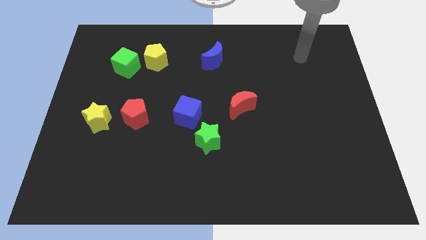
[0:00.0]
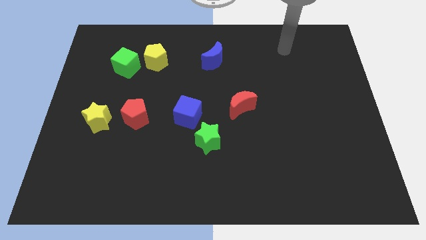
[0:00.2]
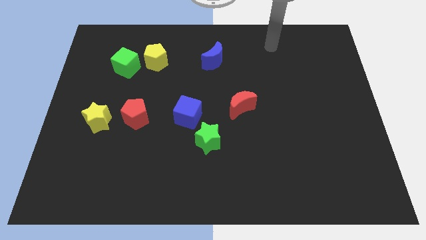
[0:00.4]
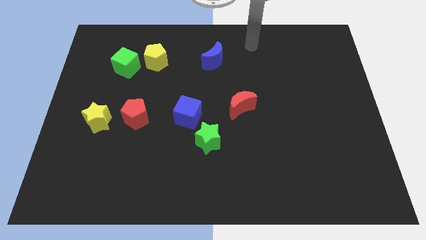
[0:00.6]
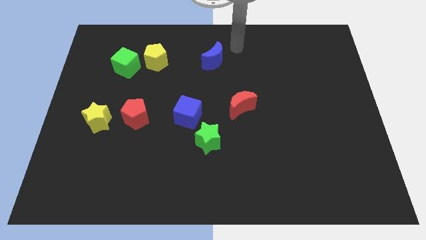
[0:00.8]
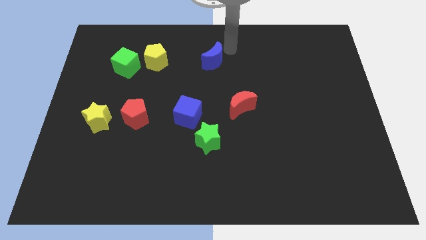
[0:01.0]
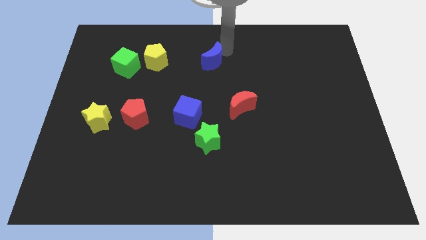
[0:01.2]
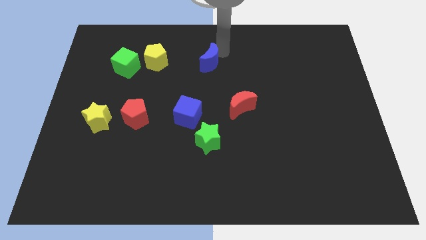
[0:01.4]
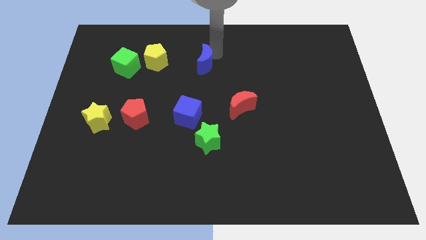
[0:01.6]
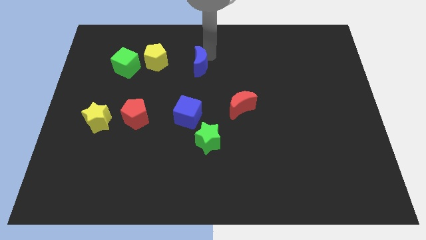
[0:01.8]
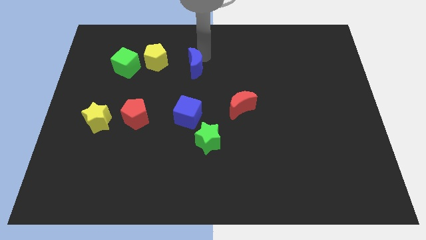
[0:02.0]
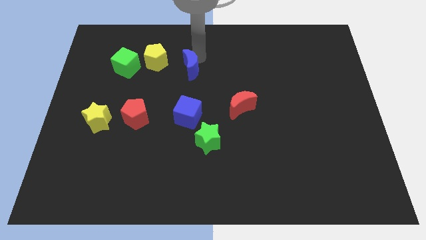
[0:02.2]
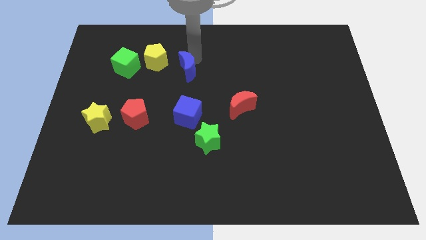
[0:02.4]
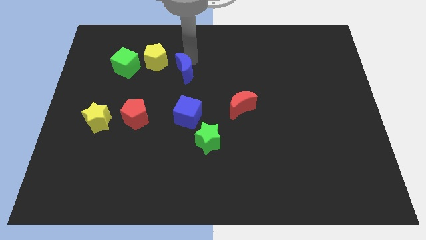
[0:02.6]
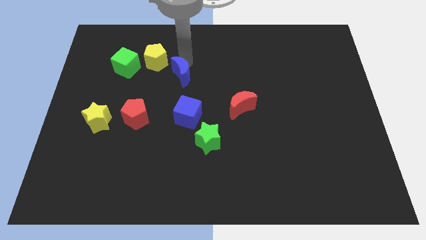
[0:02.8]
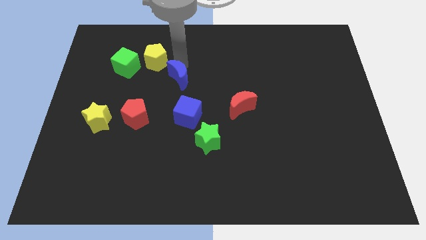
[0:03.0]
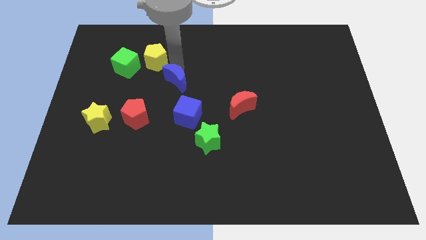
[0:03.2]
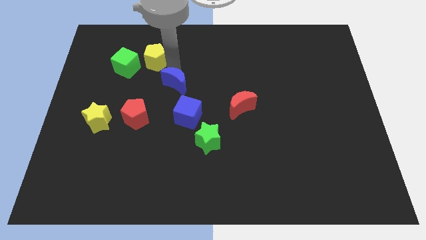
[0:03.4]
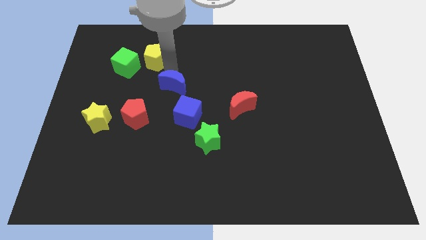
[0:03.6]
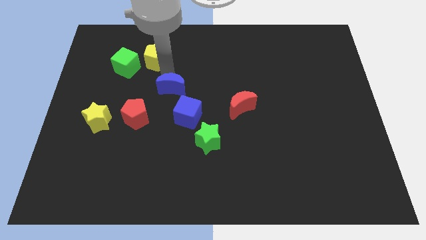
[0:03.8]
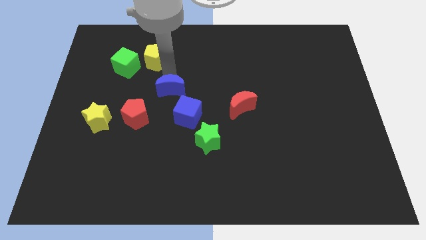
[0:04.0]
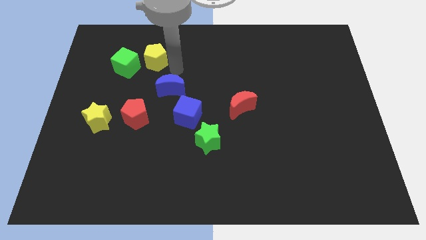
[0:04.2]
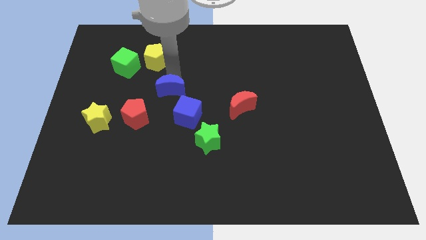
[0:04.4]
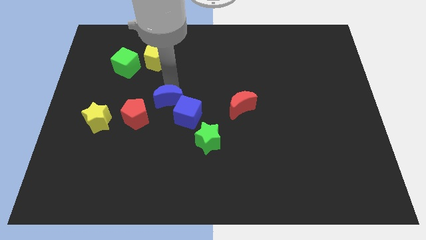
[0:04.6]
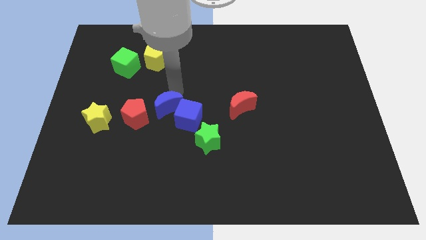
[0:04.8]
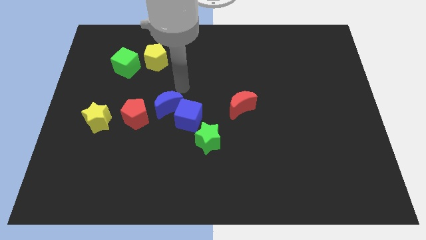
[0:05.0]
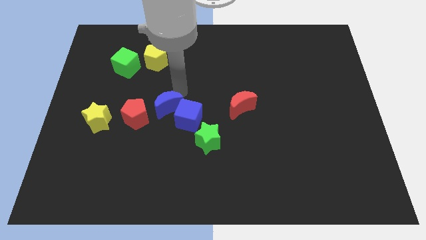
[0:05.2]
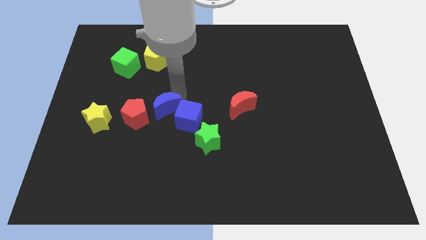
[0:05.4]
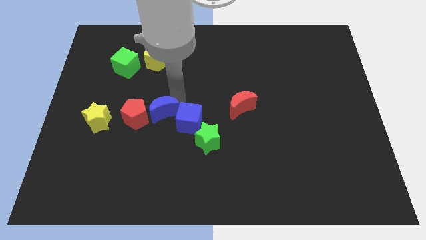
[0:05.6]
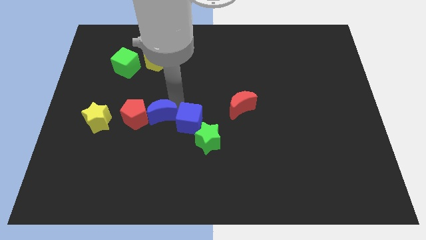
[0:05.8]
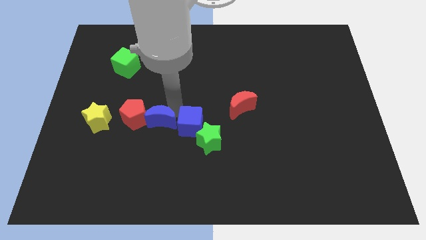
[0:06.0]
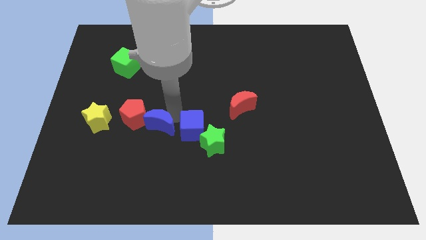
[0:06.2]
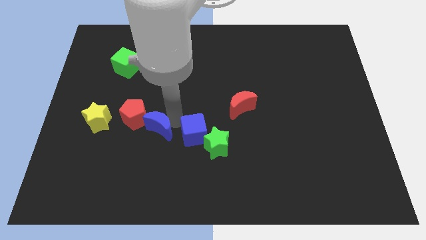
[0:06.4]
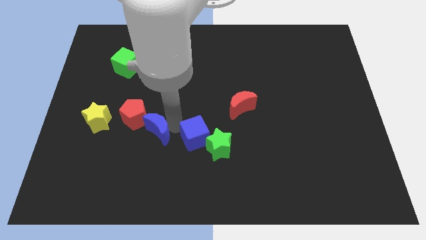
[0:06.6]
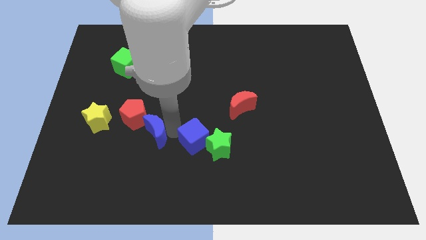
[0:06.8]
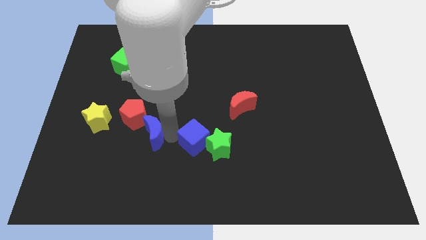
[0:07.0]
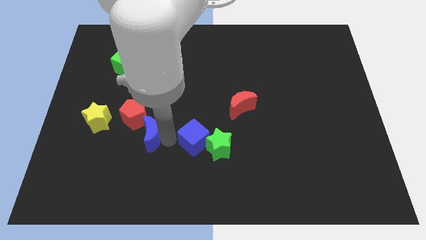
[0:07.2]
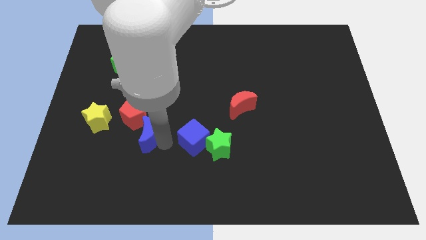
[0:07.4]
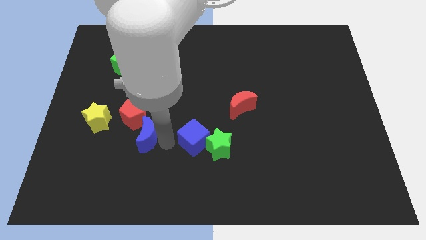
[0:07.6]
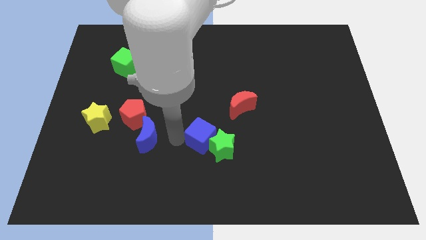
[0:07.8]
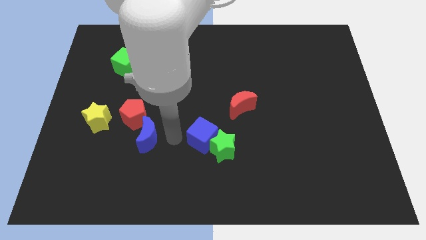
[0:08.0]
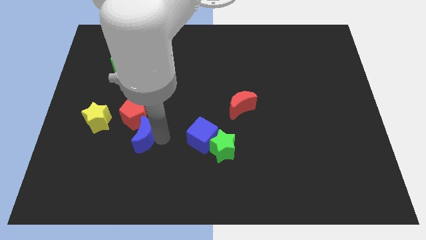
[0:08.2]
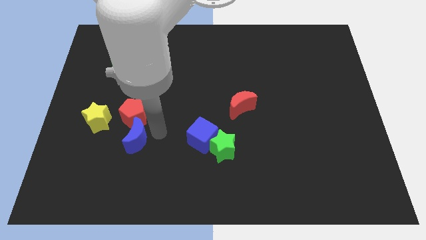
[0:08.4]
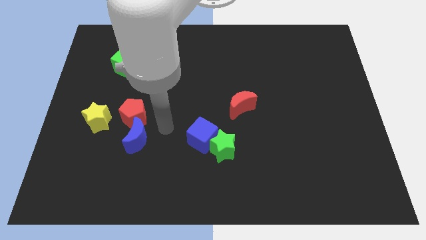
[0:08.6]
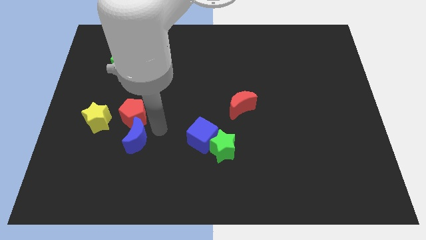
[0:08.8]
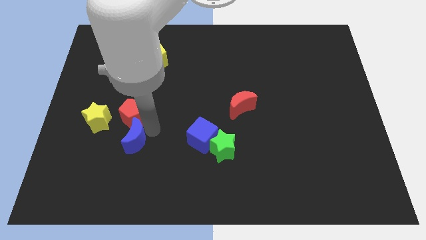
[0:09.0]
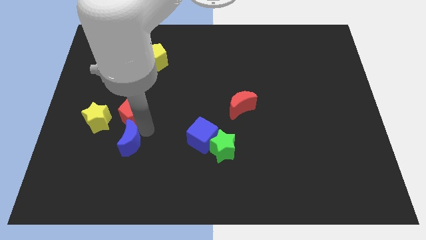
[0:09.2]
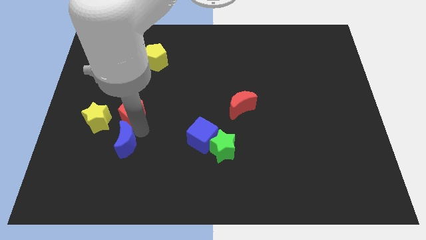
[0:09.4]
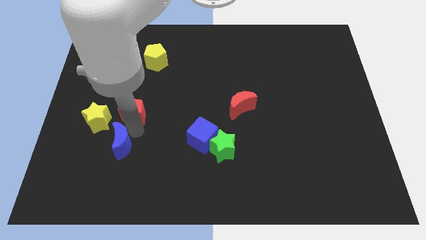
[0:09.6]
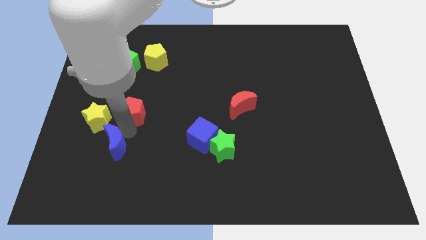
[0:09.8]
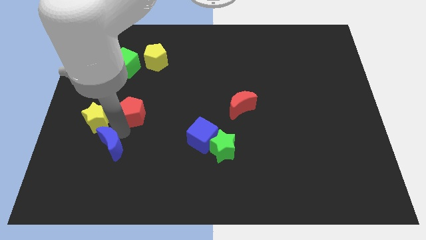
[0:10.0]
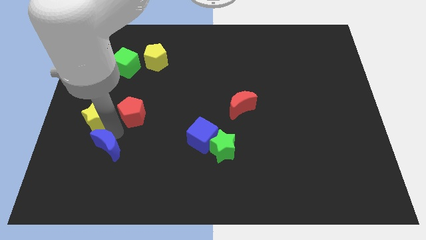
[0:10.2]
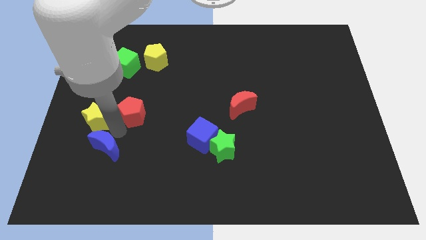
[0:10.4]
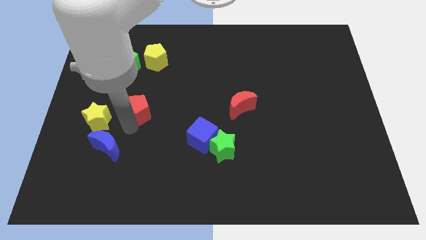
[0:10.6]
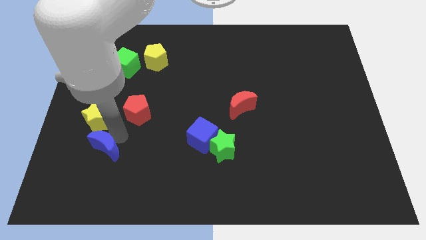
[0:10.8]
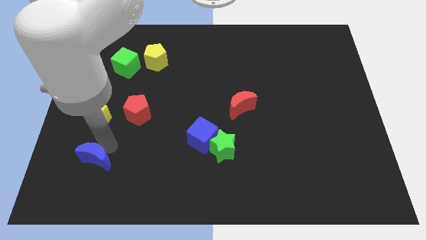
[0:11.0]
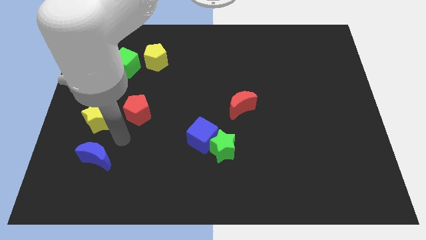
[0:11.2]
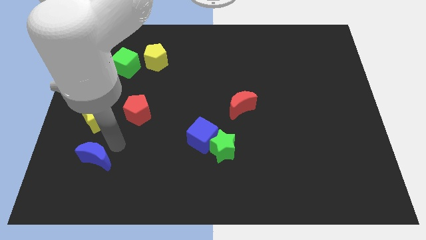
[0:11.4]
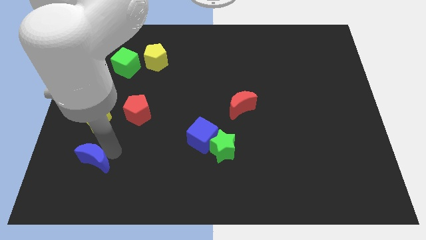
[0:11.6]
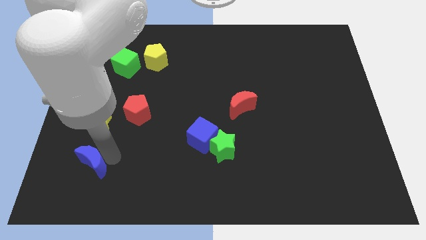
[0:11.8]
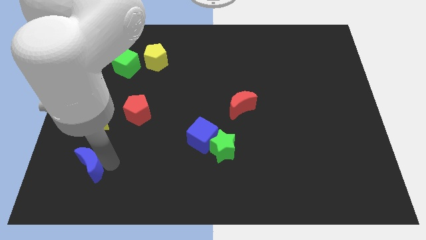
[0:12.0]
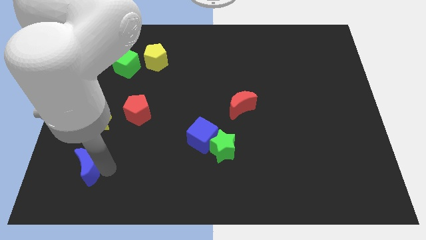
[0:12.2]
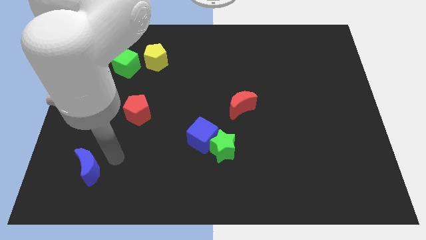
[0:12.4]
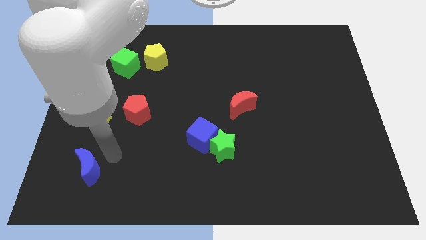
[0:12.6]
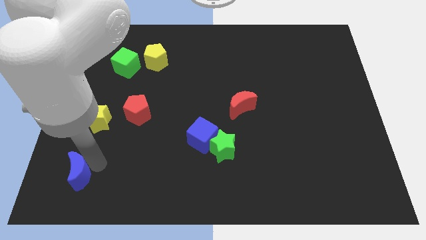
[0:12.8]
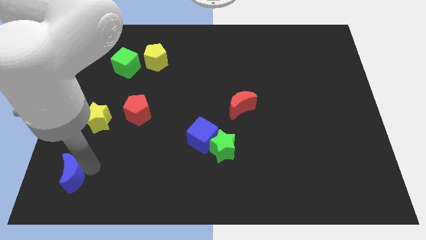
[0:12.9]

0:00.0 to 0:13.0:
slide the blue moon to the bottom left

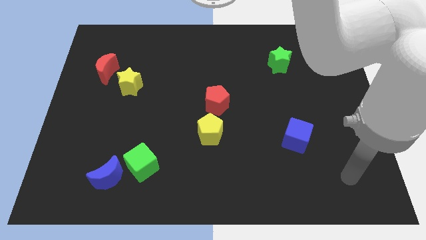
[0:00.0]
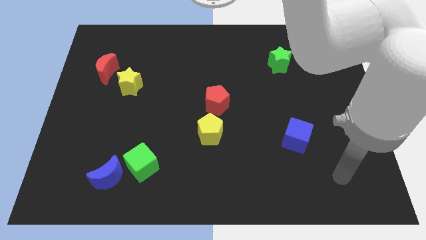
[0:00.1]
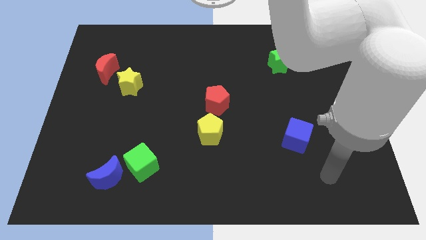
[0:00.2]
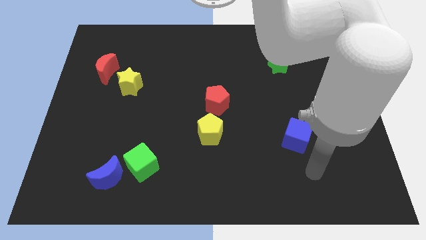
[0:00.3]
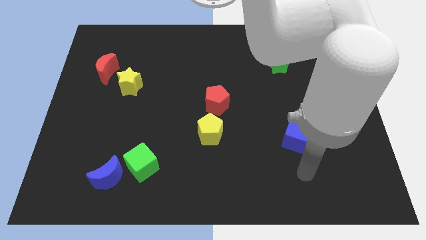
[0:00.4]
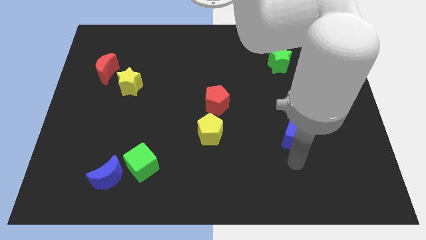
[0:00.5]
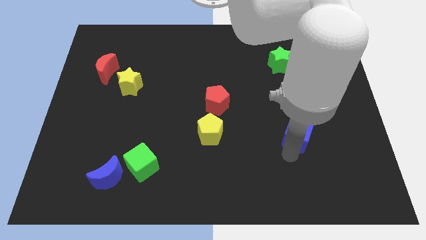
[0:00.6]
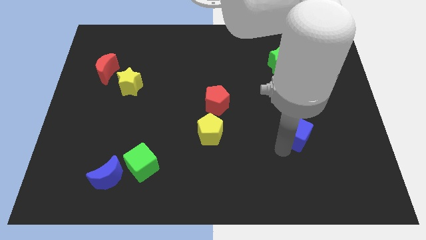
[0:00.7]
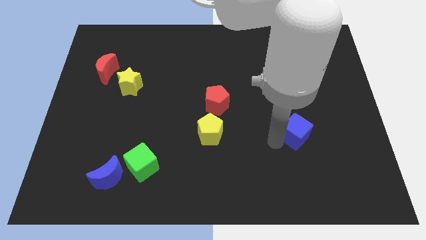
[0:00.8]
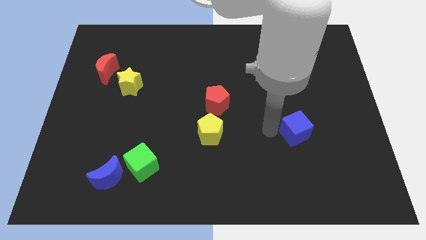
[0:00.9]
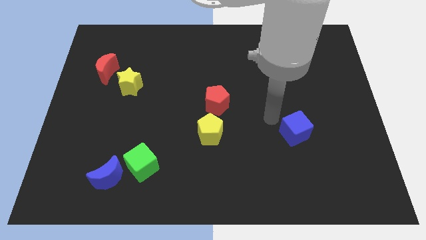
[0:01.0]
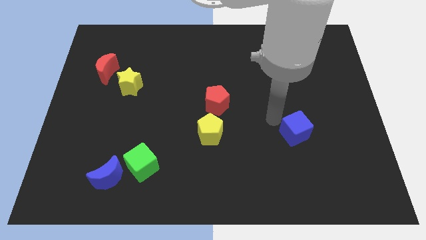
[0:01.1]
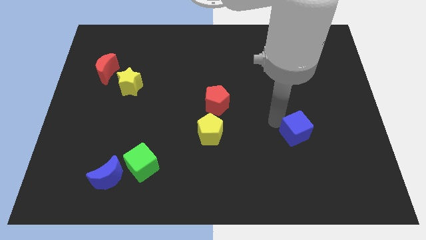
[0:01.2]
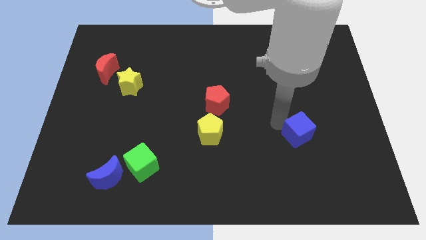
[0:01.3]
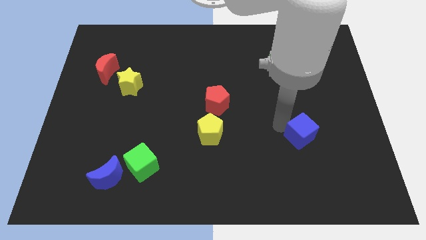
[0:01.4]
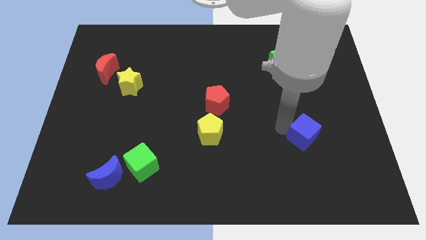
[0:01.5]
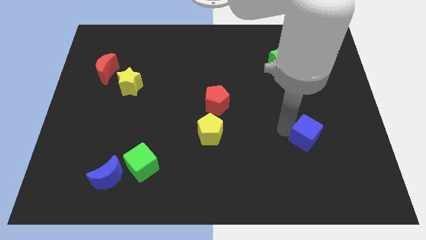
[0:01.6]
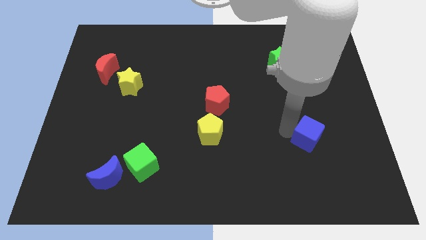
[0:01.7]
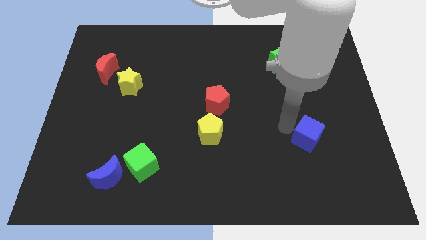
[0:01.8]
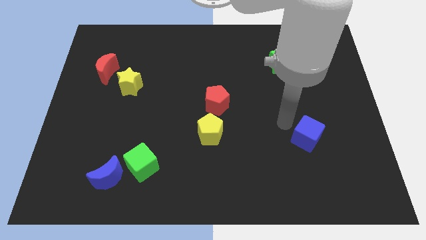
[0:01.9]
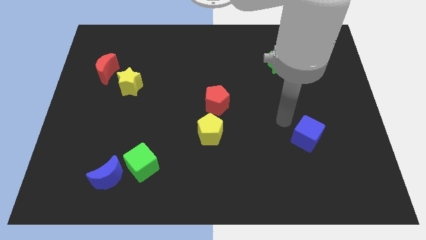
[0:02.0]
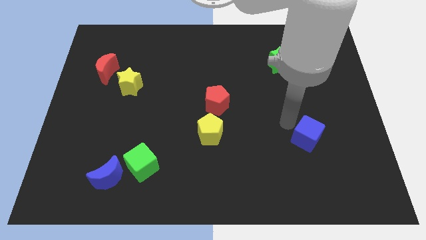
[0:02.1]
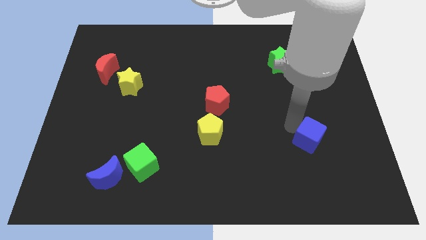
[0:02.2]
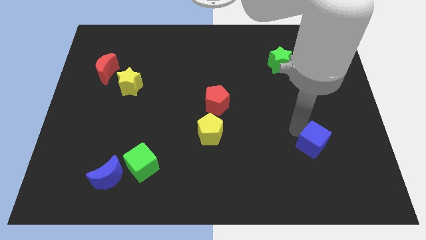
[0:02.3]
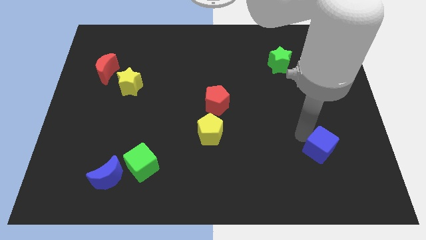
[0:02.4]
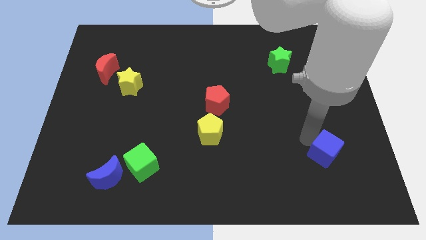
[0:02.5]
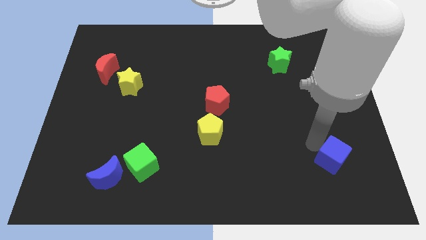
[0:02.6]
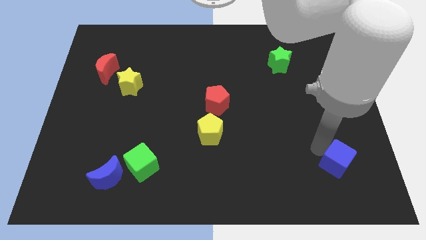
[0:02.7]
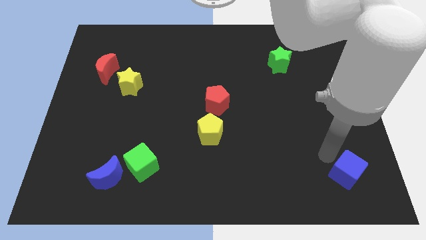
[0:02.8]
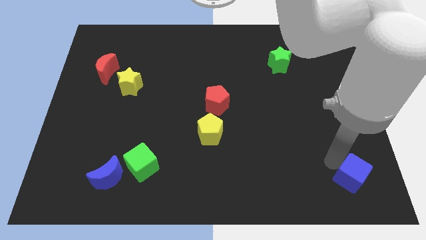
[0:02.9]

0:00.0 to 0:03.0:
push the blue cube to the bottom right corner
